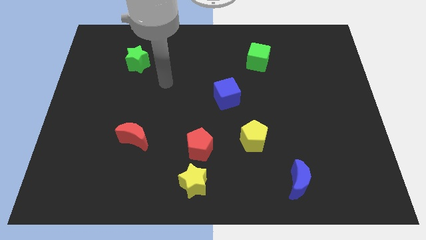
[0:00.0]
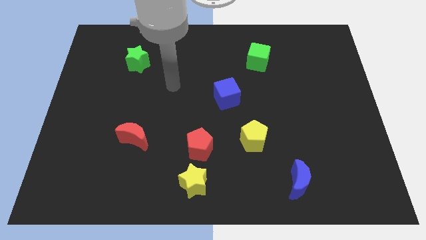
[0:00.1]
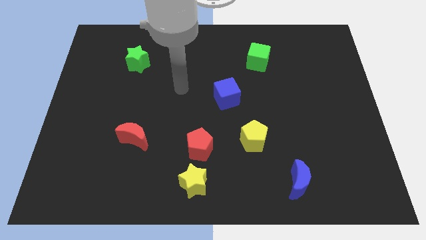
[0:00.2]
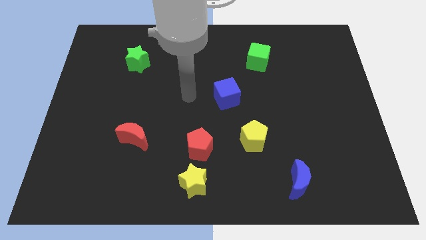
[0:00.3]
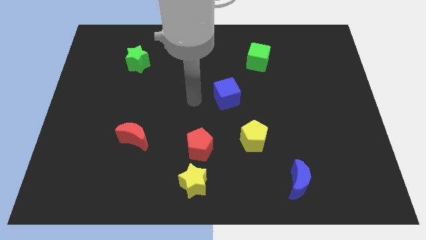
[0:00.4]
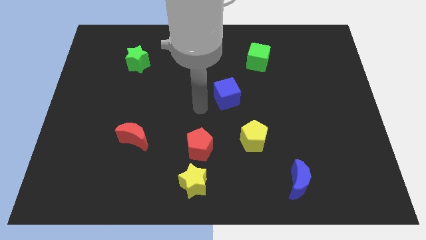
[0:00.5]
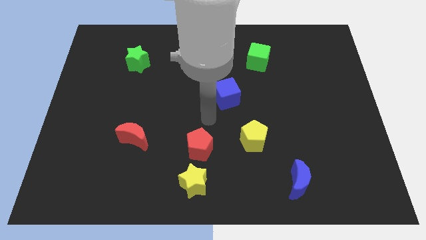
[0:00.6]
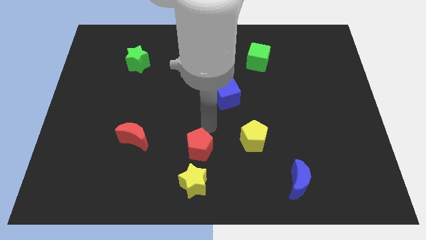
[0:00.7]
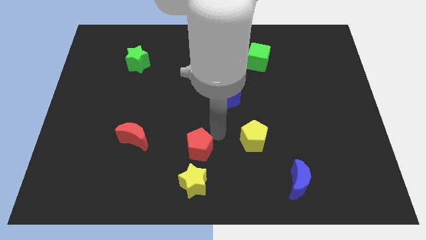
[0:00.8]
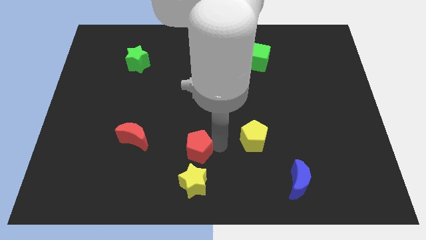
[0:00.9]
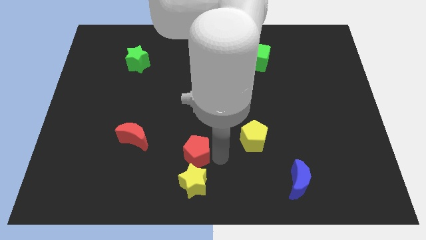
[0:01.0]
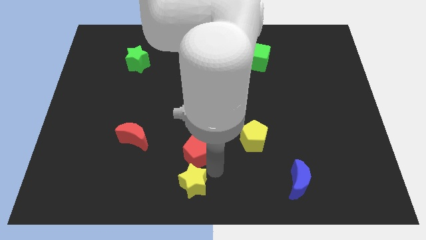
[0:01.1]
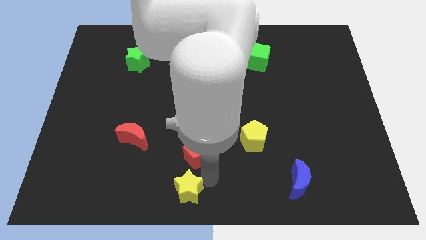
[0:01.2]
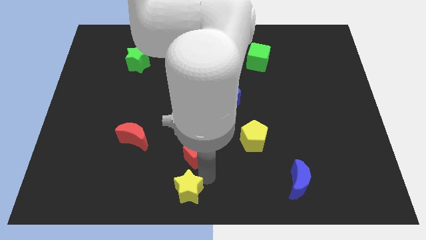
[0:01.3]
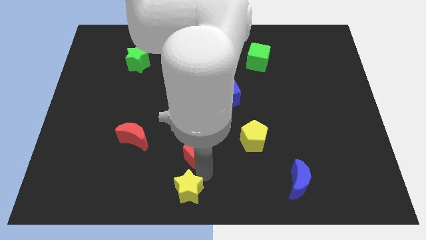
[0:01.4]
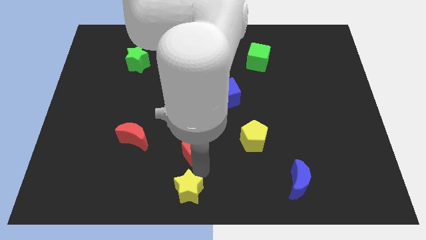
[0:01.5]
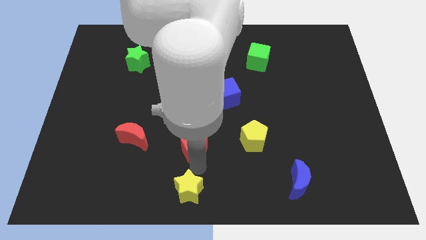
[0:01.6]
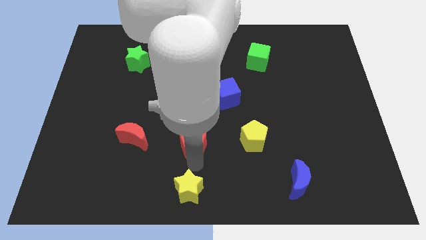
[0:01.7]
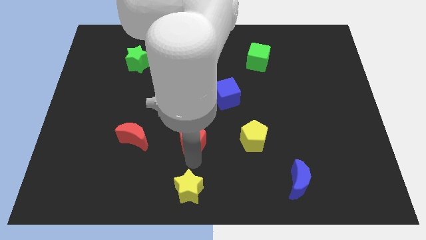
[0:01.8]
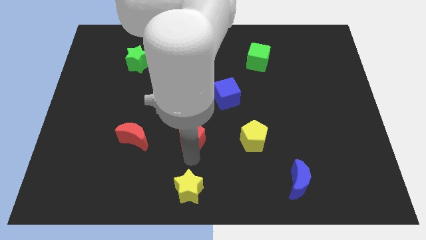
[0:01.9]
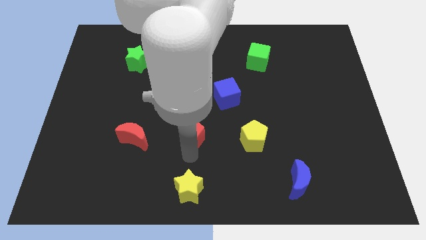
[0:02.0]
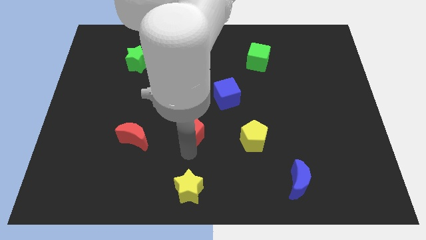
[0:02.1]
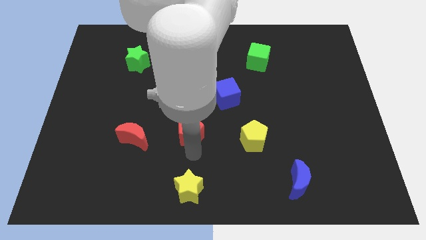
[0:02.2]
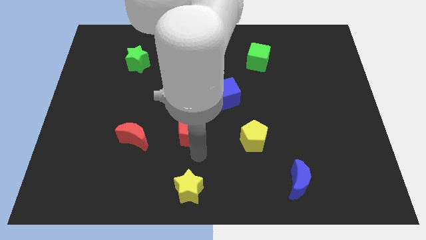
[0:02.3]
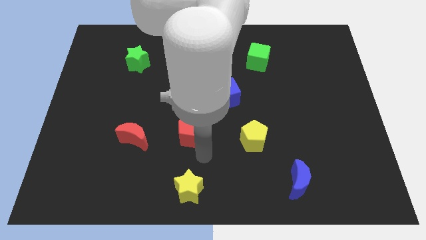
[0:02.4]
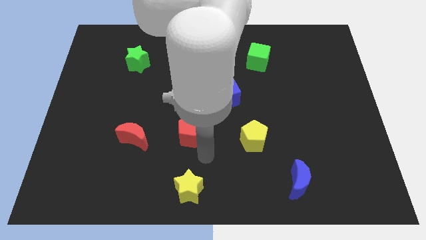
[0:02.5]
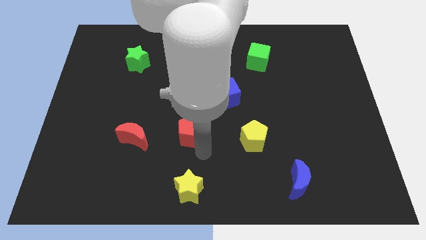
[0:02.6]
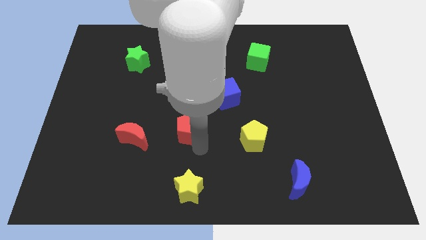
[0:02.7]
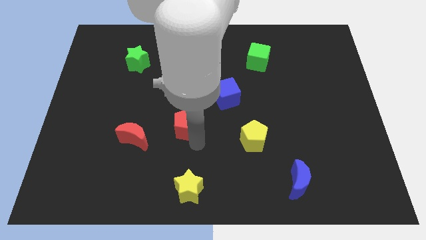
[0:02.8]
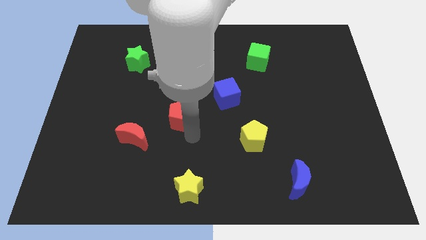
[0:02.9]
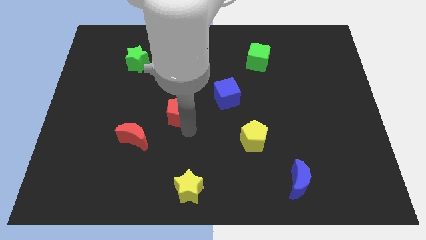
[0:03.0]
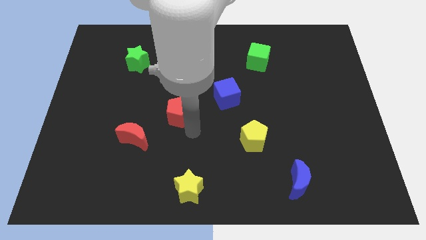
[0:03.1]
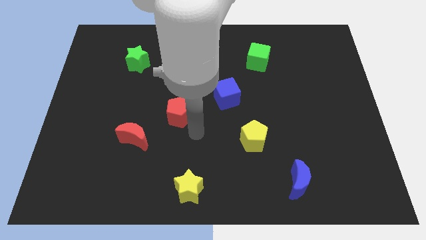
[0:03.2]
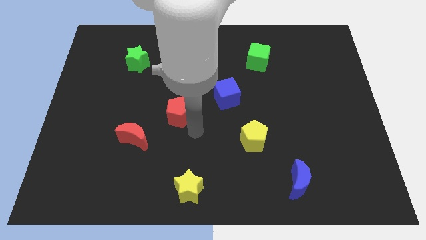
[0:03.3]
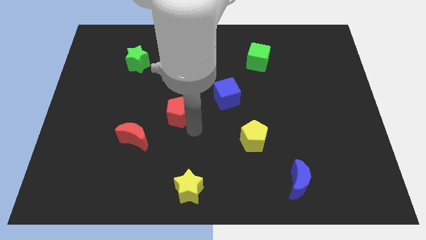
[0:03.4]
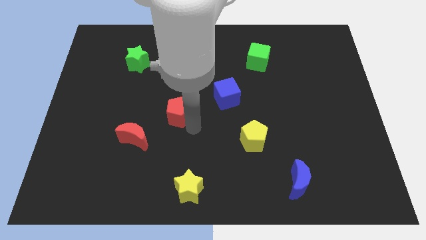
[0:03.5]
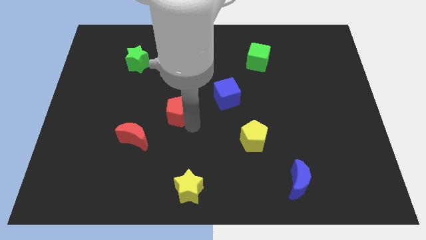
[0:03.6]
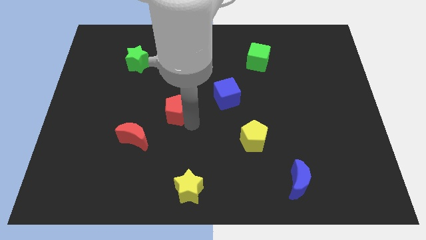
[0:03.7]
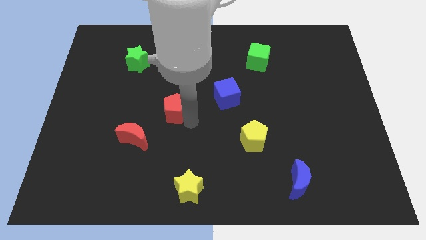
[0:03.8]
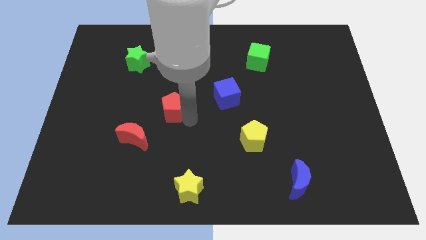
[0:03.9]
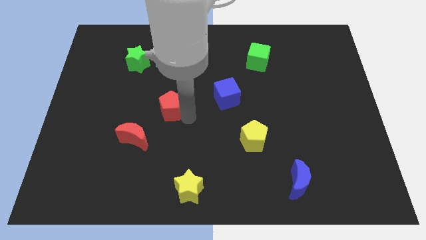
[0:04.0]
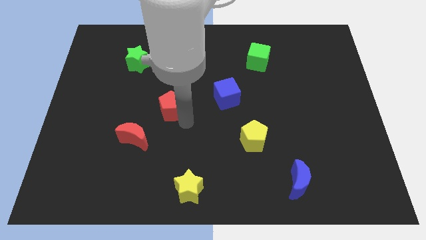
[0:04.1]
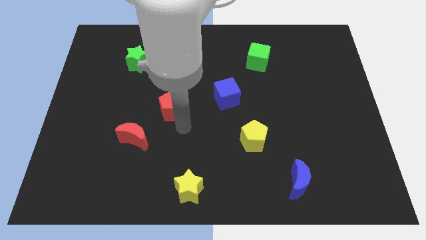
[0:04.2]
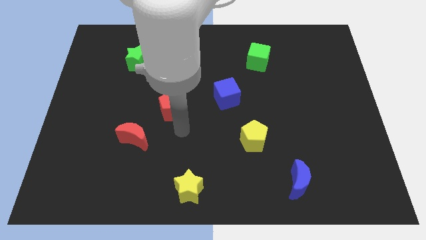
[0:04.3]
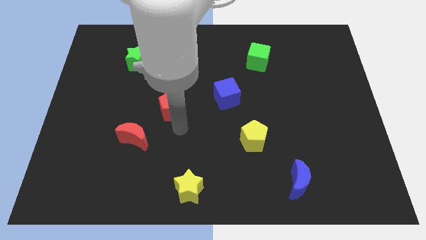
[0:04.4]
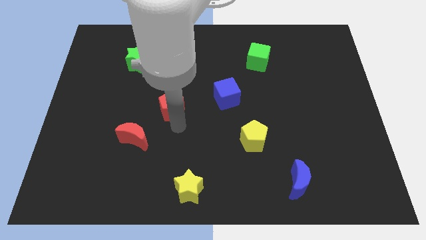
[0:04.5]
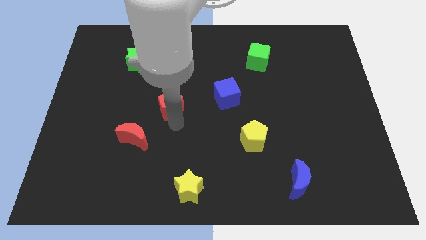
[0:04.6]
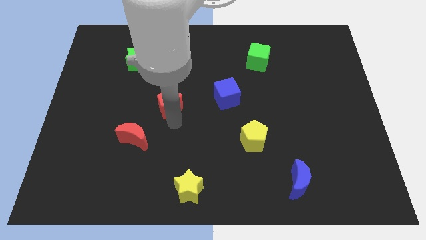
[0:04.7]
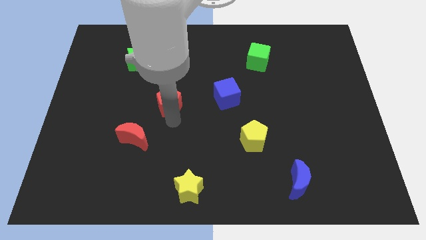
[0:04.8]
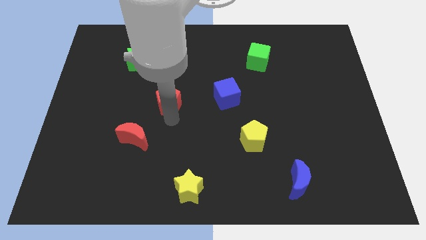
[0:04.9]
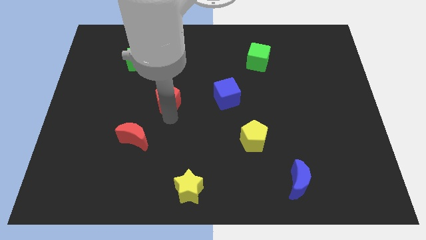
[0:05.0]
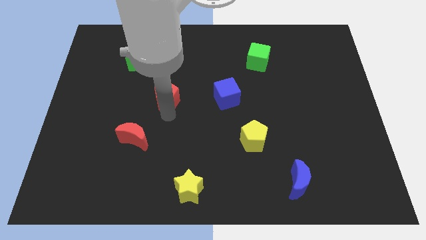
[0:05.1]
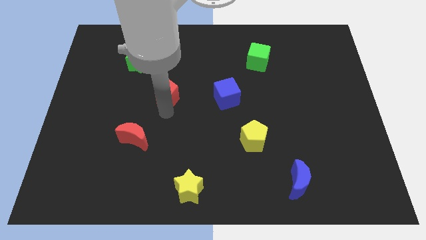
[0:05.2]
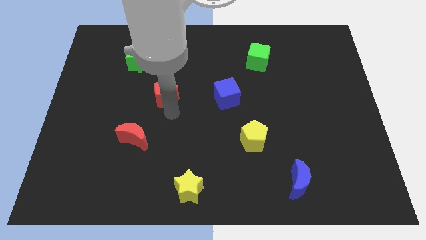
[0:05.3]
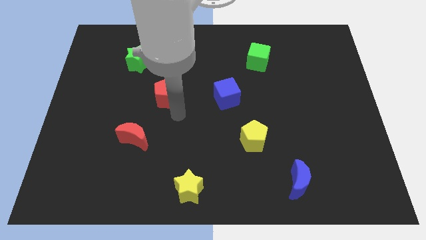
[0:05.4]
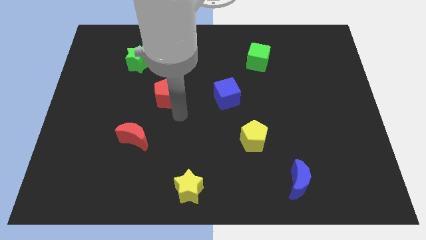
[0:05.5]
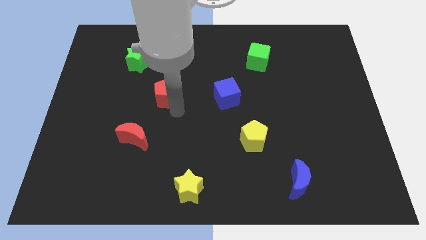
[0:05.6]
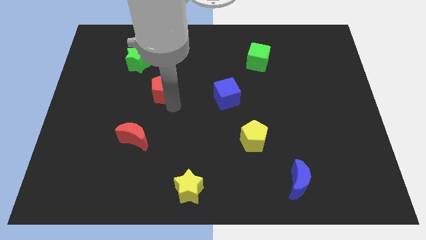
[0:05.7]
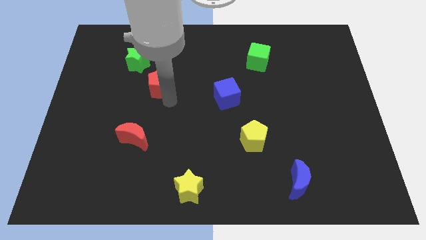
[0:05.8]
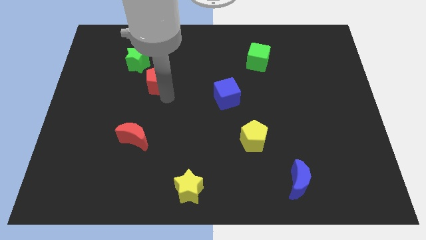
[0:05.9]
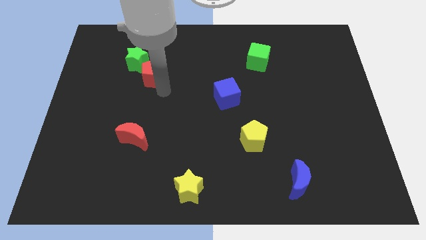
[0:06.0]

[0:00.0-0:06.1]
move the red pentagon to the green star
